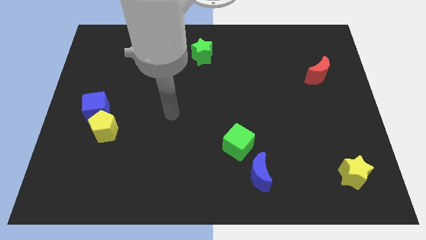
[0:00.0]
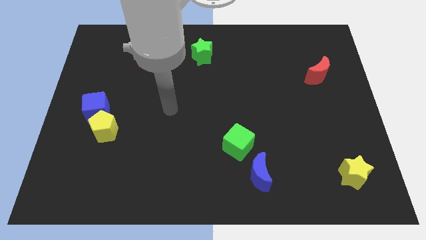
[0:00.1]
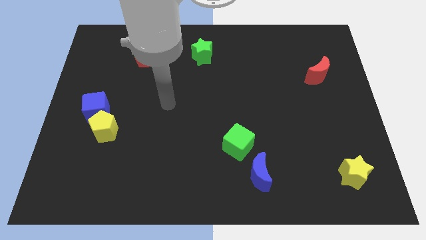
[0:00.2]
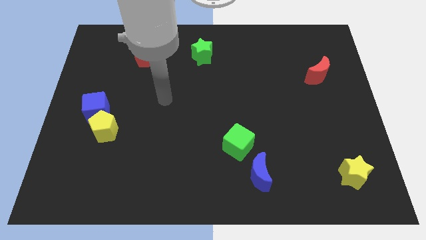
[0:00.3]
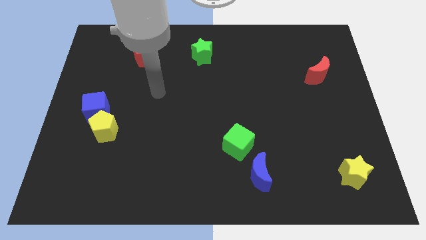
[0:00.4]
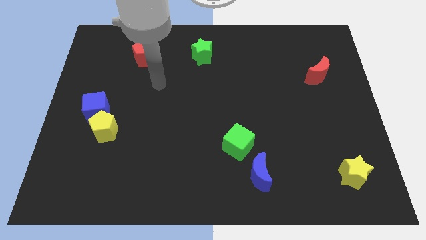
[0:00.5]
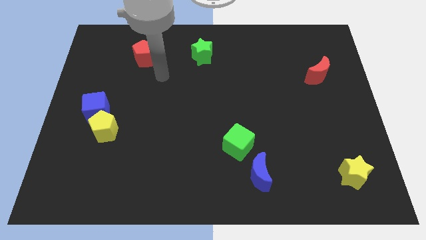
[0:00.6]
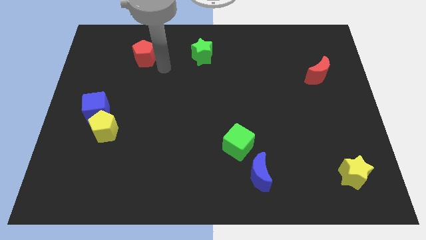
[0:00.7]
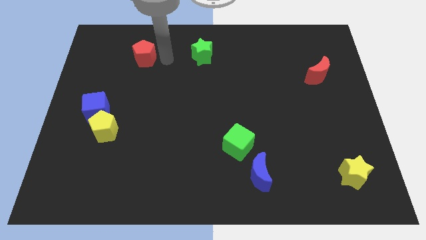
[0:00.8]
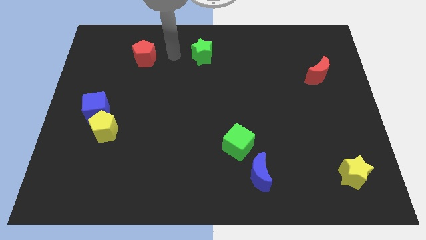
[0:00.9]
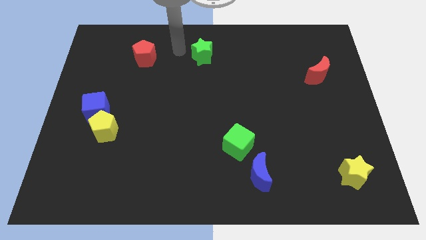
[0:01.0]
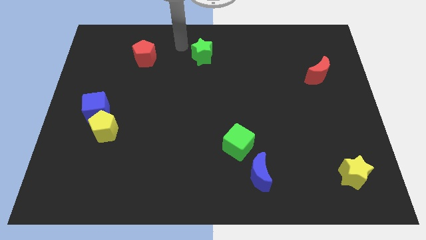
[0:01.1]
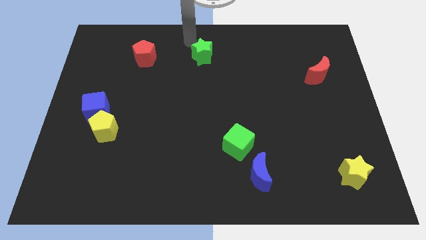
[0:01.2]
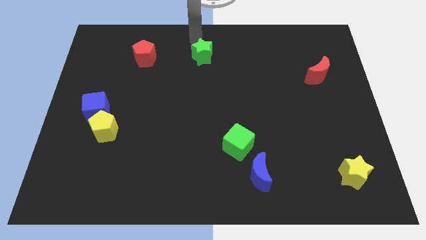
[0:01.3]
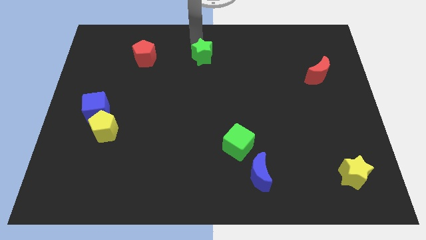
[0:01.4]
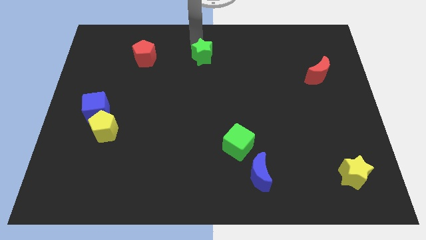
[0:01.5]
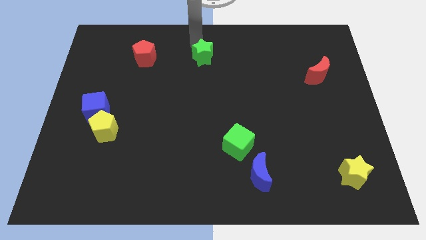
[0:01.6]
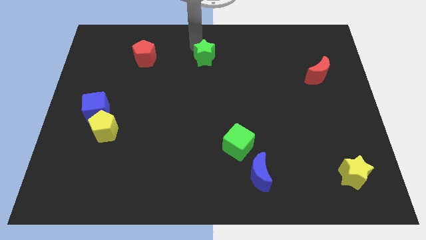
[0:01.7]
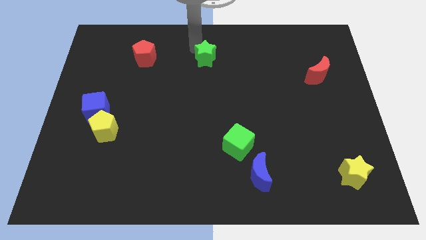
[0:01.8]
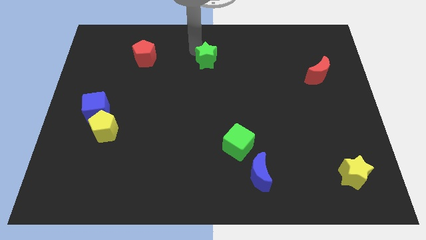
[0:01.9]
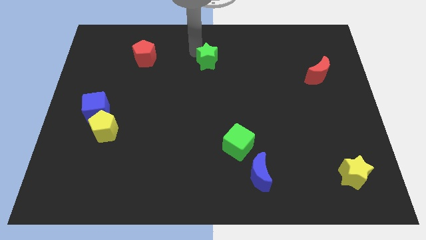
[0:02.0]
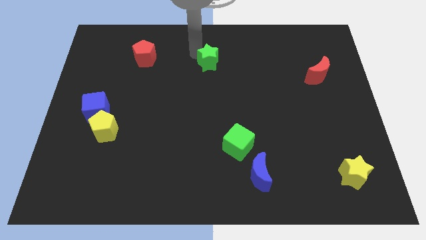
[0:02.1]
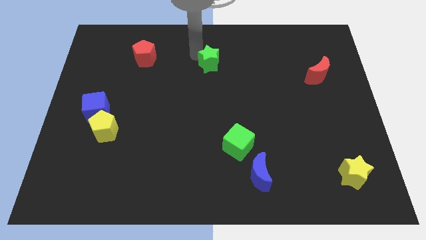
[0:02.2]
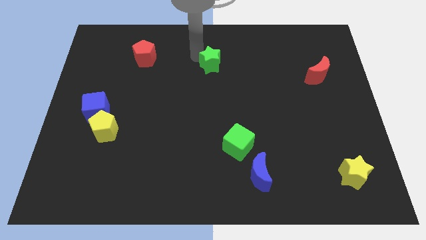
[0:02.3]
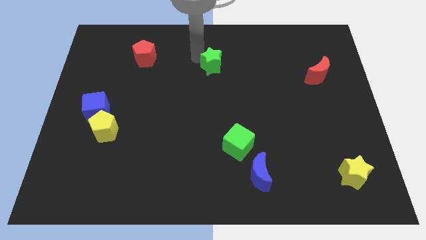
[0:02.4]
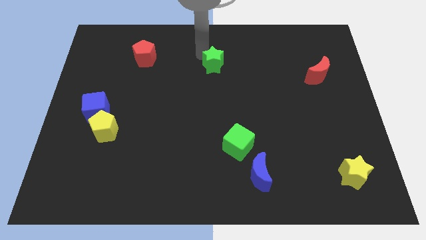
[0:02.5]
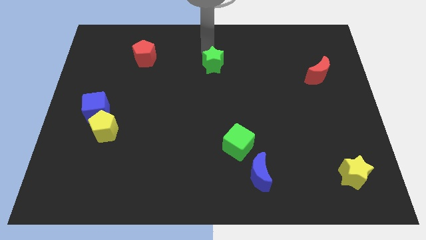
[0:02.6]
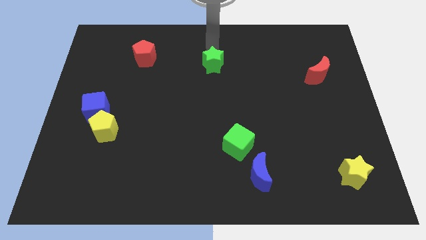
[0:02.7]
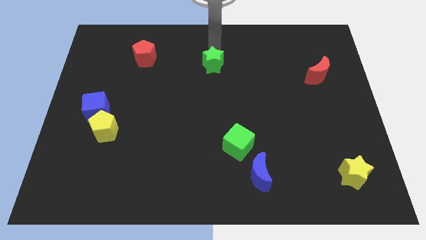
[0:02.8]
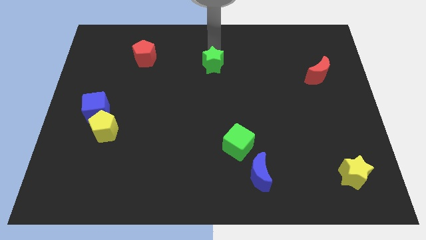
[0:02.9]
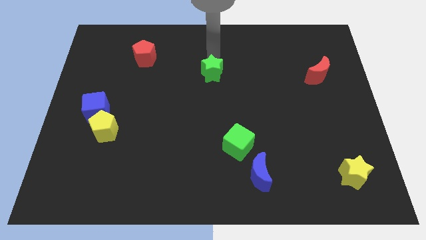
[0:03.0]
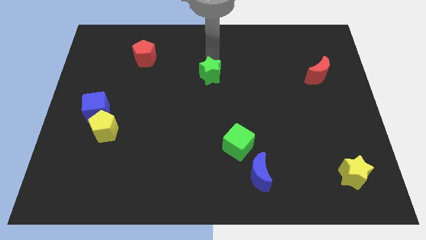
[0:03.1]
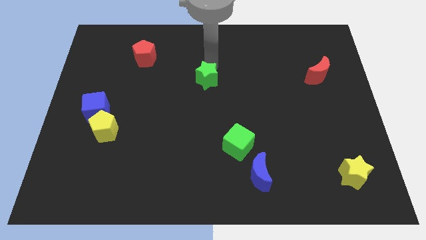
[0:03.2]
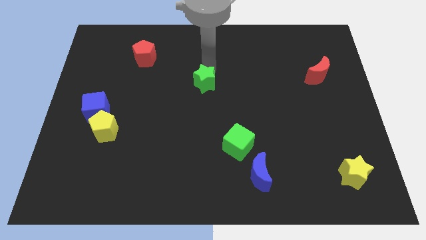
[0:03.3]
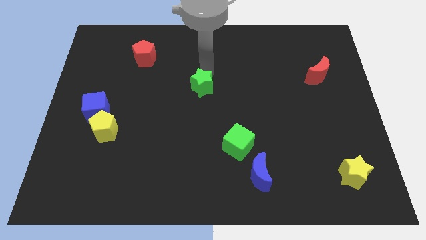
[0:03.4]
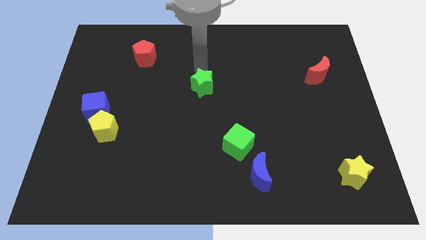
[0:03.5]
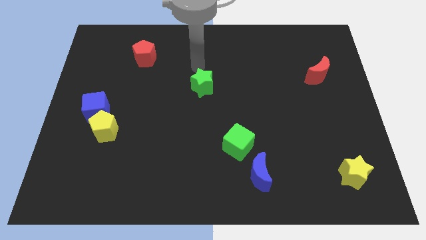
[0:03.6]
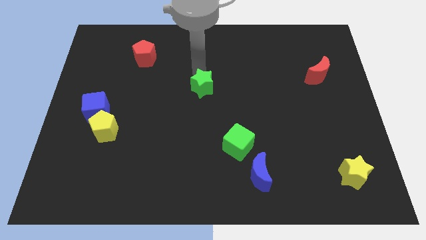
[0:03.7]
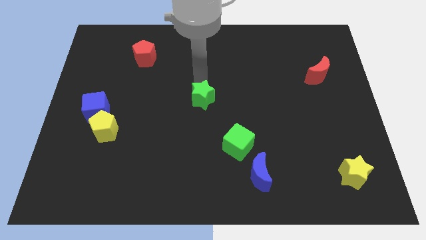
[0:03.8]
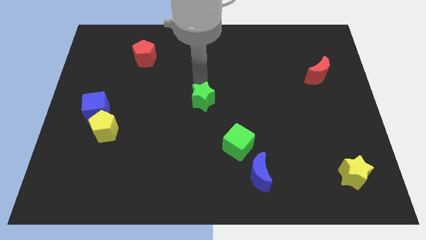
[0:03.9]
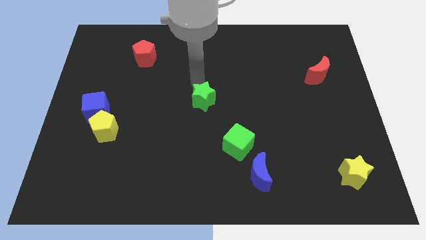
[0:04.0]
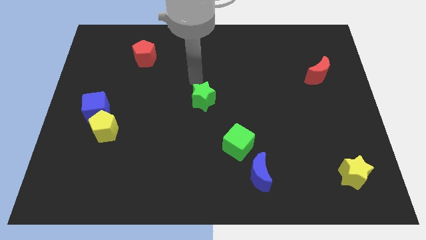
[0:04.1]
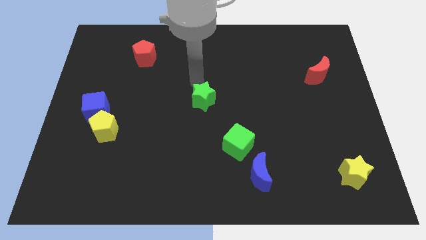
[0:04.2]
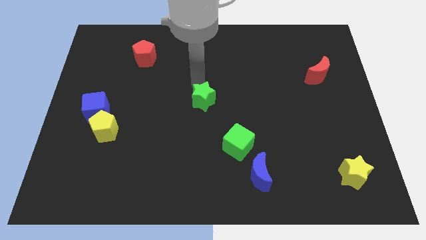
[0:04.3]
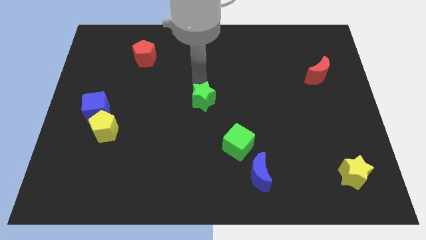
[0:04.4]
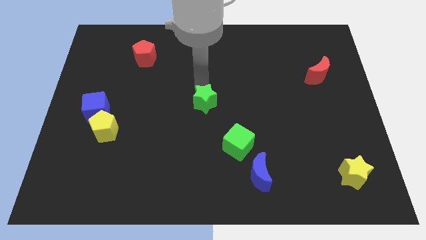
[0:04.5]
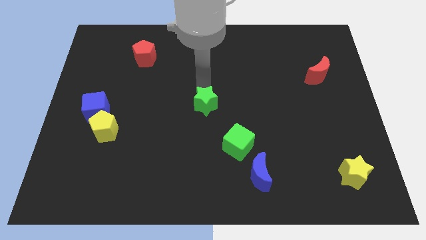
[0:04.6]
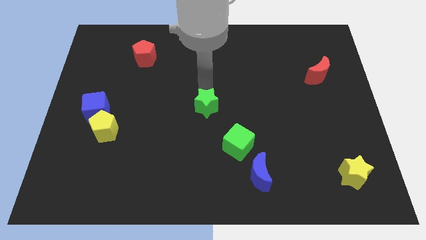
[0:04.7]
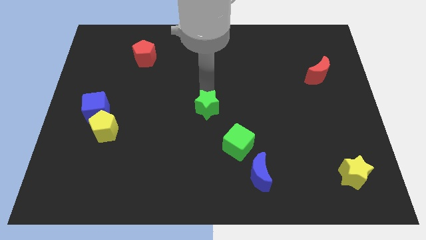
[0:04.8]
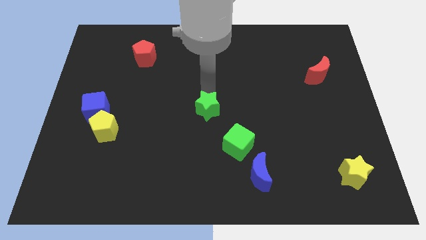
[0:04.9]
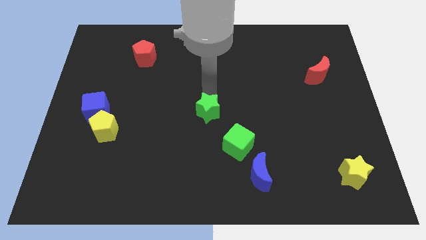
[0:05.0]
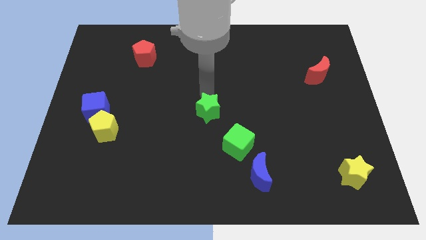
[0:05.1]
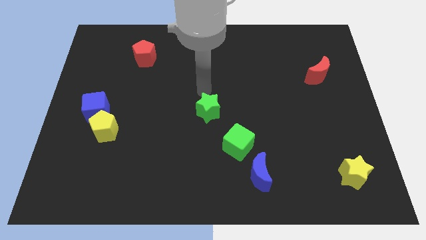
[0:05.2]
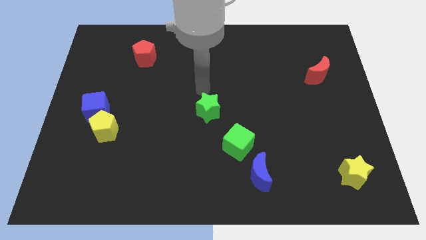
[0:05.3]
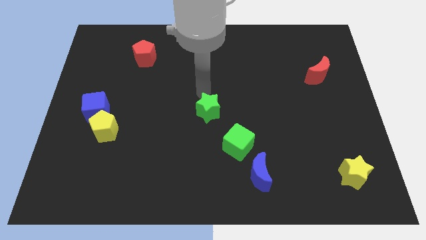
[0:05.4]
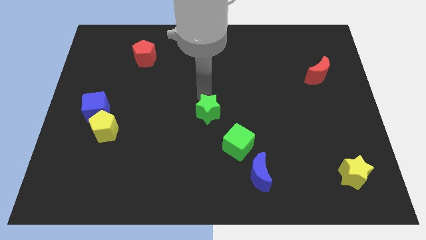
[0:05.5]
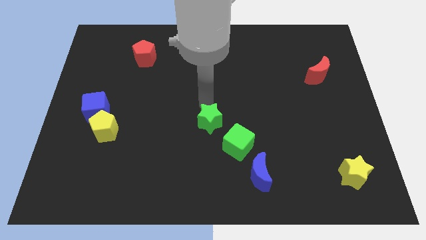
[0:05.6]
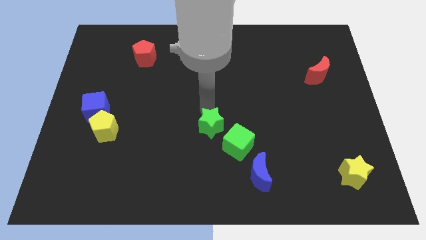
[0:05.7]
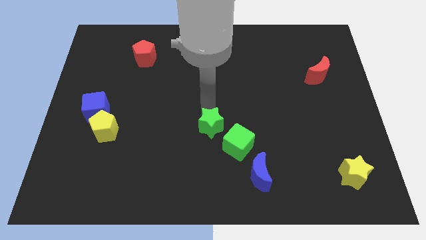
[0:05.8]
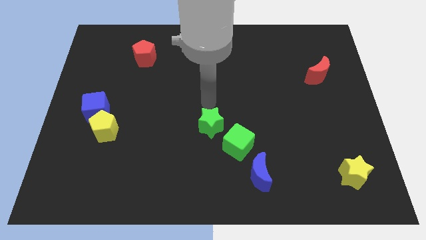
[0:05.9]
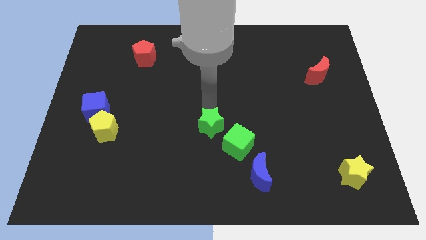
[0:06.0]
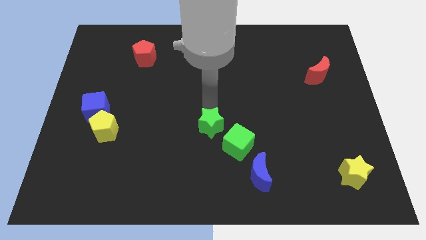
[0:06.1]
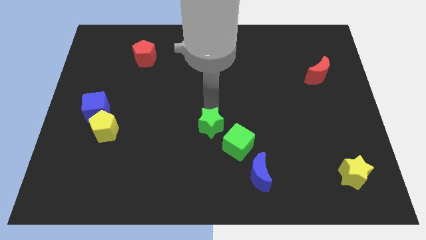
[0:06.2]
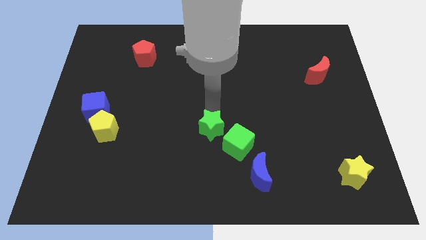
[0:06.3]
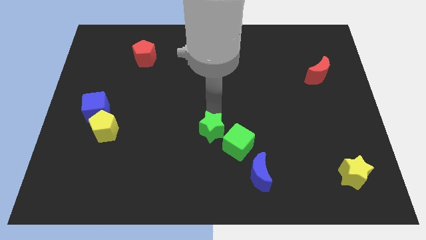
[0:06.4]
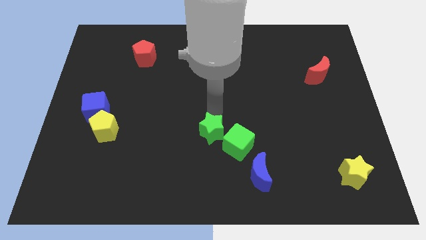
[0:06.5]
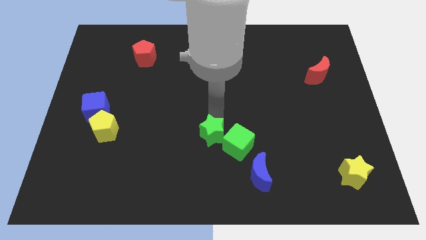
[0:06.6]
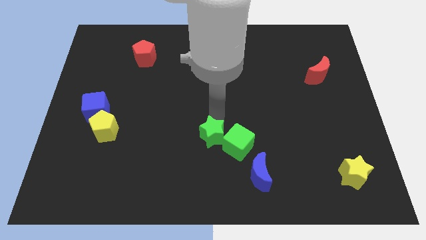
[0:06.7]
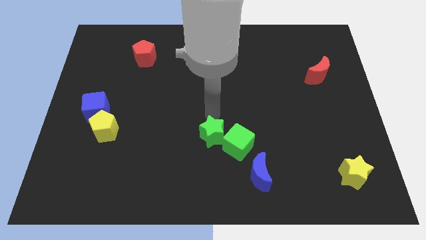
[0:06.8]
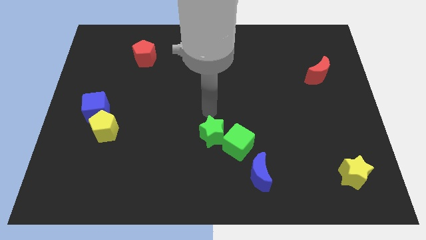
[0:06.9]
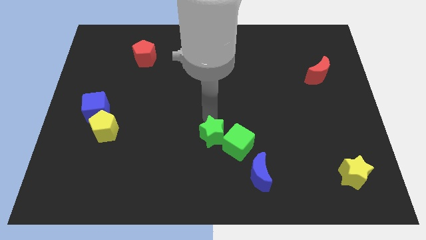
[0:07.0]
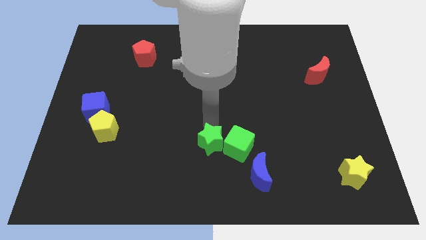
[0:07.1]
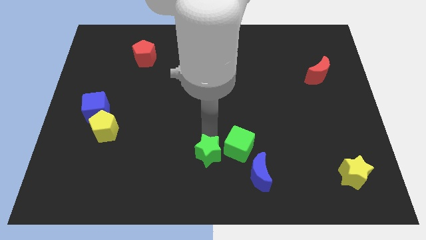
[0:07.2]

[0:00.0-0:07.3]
push the green star to the bottom side
